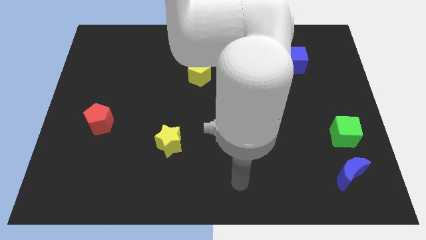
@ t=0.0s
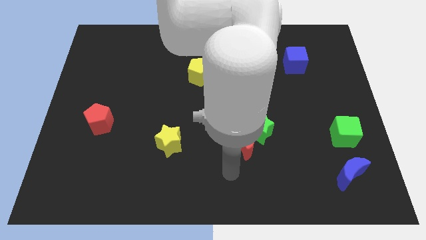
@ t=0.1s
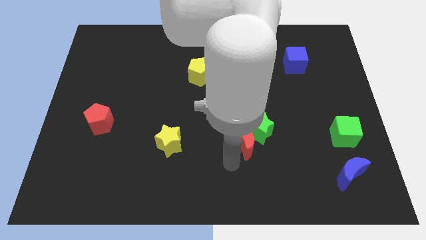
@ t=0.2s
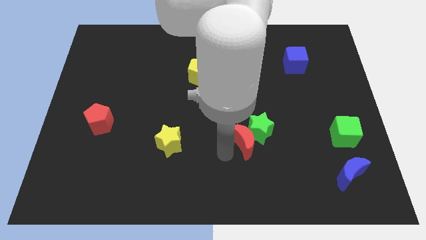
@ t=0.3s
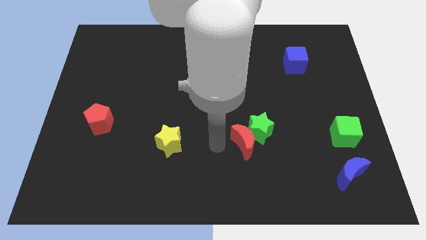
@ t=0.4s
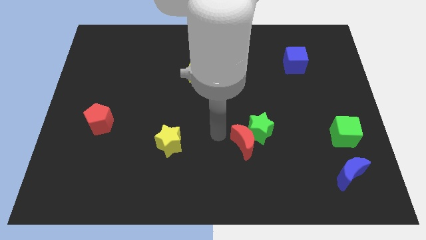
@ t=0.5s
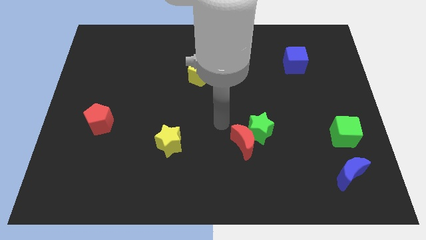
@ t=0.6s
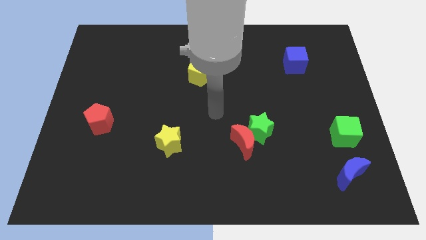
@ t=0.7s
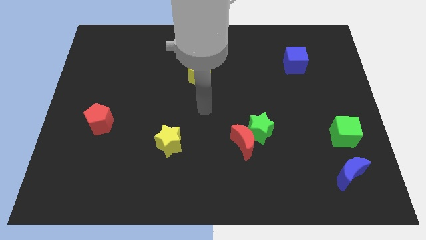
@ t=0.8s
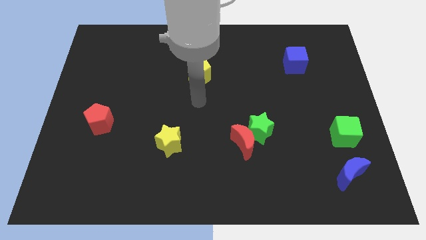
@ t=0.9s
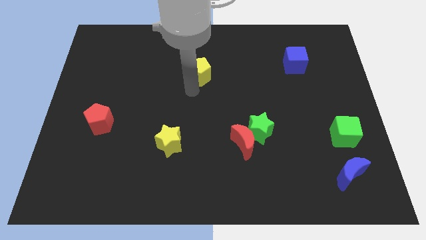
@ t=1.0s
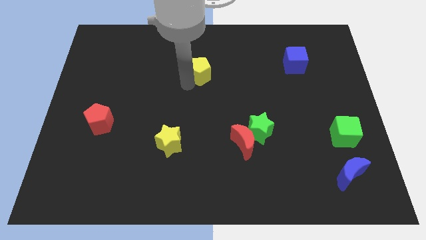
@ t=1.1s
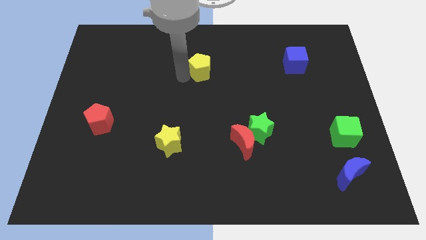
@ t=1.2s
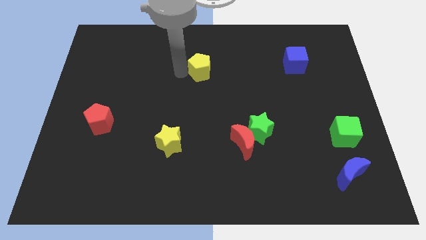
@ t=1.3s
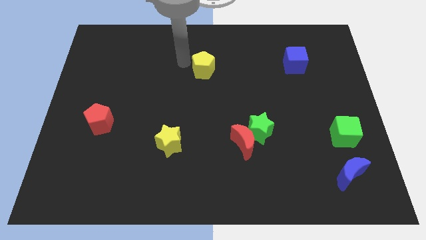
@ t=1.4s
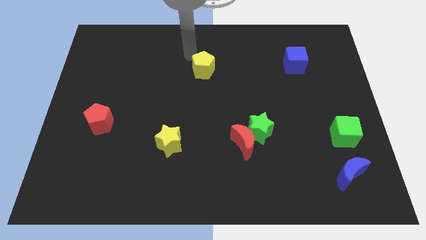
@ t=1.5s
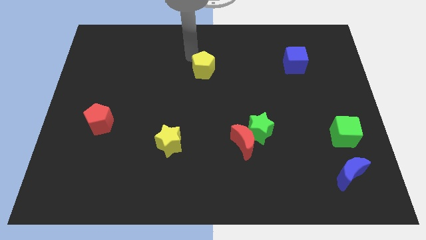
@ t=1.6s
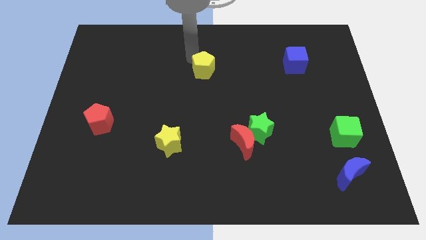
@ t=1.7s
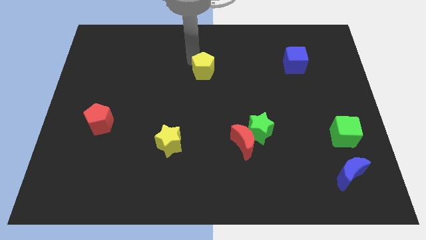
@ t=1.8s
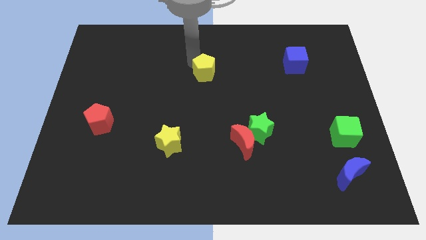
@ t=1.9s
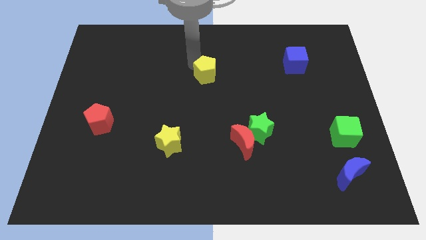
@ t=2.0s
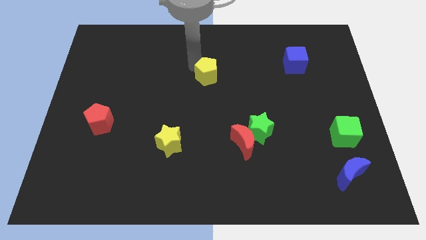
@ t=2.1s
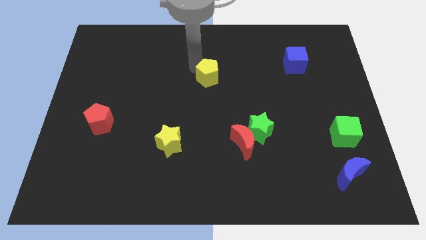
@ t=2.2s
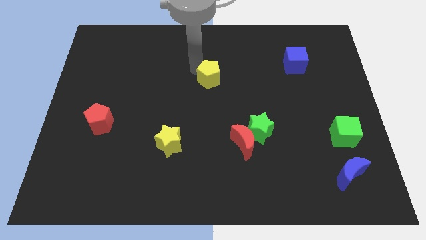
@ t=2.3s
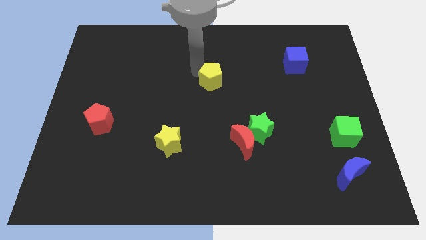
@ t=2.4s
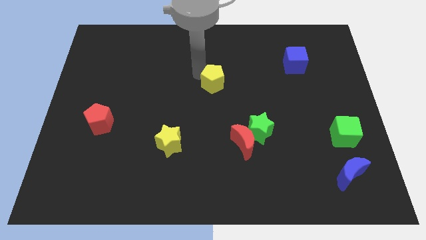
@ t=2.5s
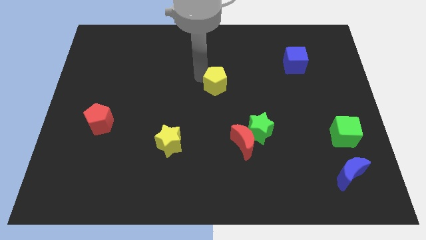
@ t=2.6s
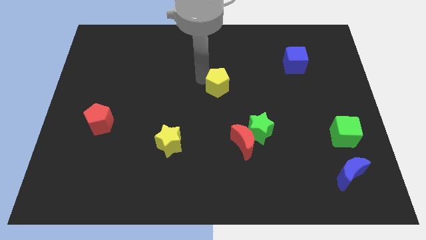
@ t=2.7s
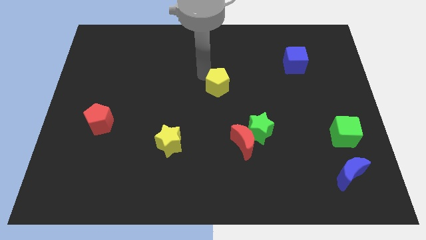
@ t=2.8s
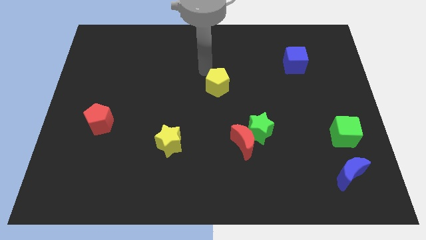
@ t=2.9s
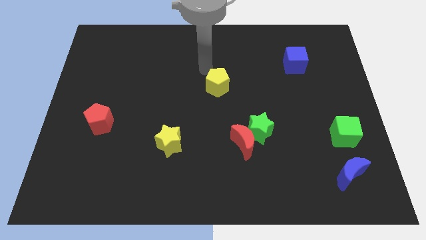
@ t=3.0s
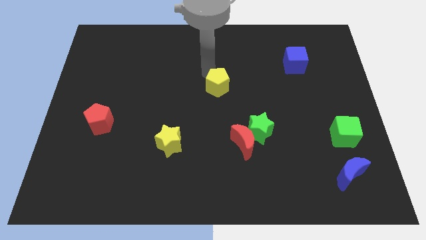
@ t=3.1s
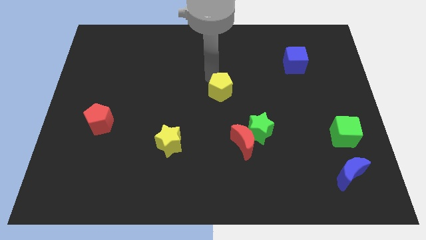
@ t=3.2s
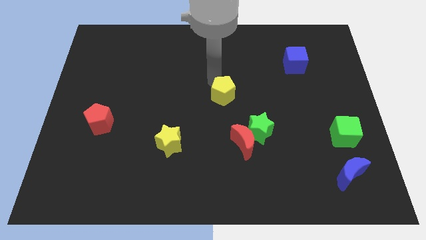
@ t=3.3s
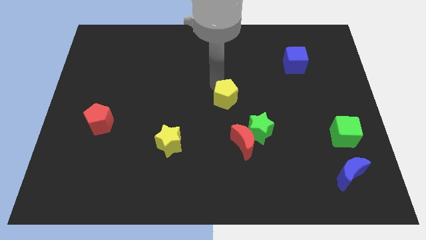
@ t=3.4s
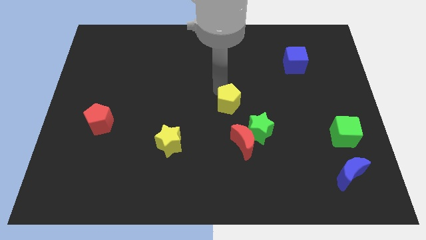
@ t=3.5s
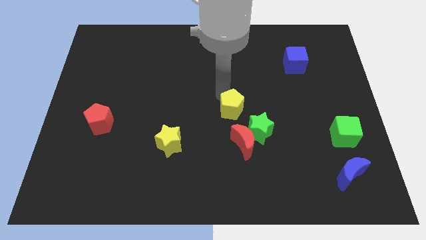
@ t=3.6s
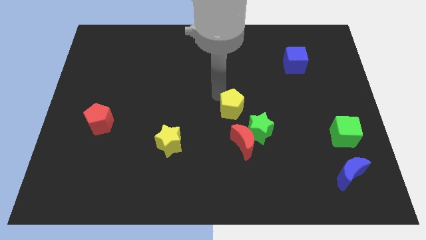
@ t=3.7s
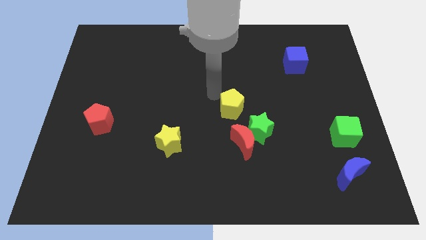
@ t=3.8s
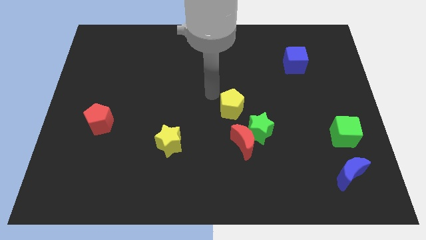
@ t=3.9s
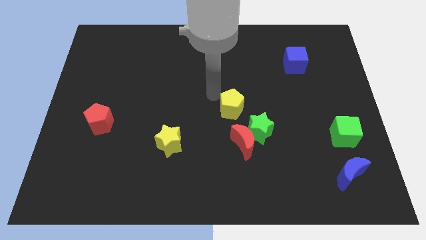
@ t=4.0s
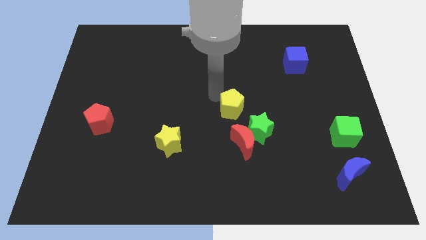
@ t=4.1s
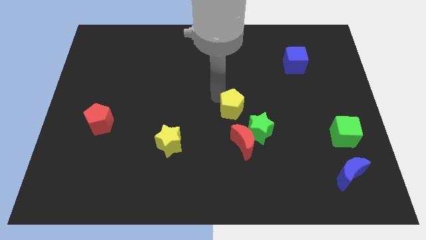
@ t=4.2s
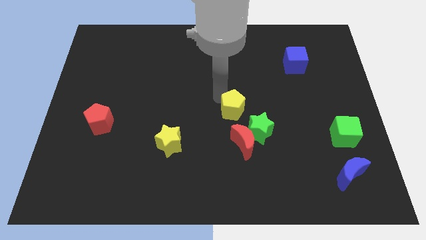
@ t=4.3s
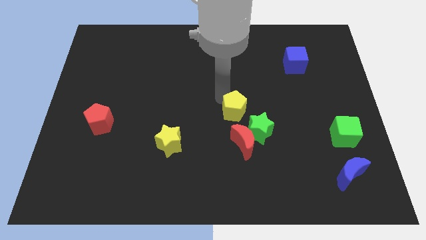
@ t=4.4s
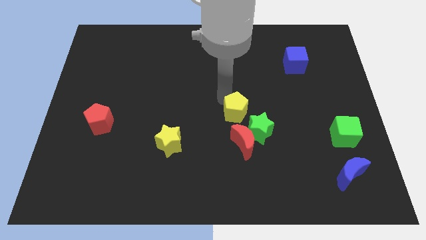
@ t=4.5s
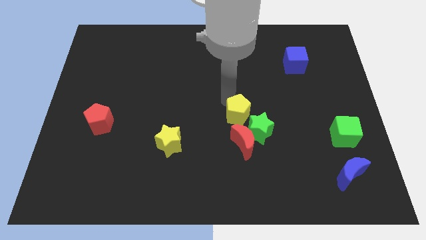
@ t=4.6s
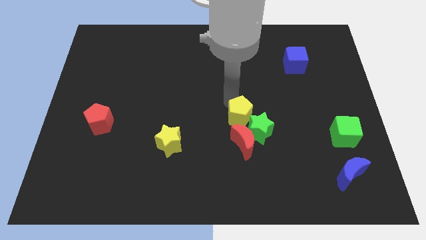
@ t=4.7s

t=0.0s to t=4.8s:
slide the yellow pentagon towards the green star

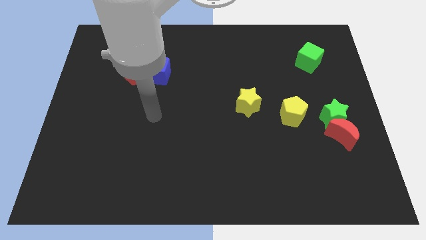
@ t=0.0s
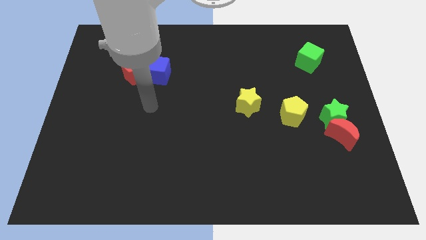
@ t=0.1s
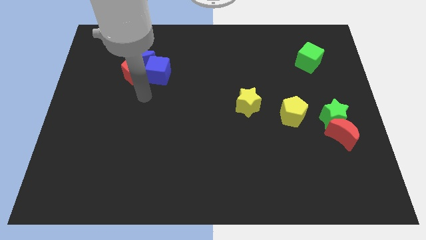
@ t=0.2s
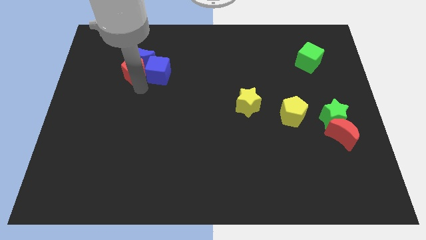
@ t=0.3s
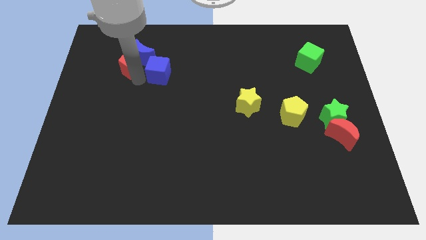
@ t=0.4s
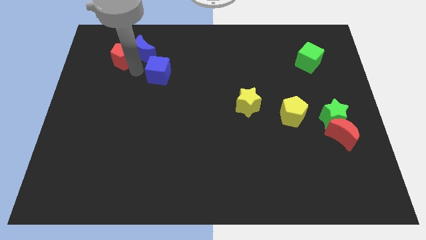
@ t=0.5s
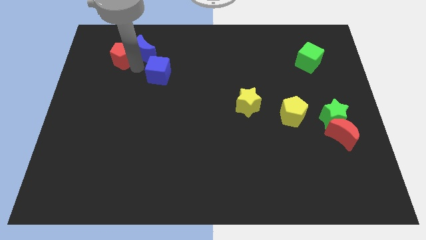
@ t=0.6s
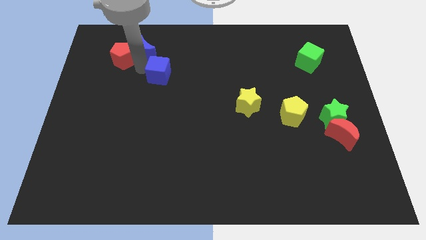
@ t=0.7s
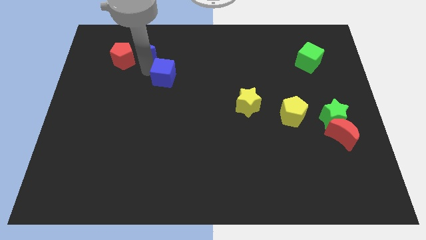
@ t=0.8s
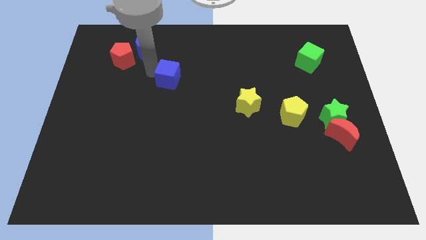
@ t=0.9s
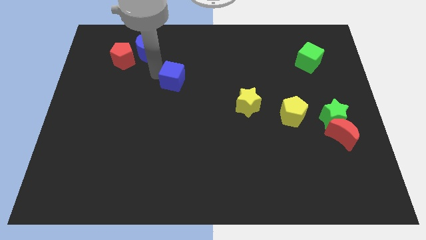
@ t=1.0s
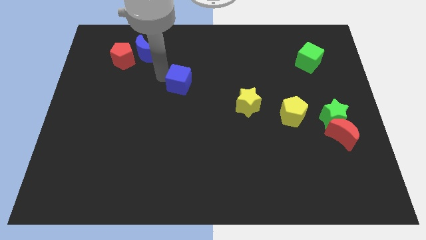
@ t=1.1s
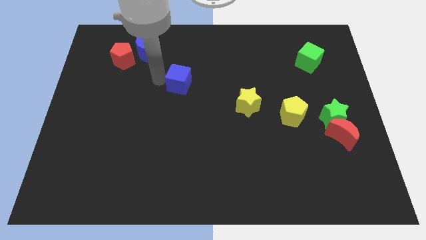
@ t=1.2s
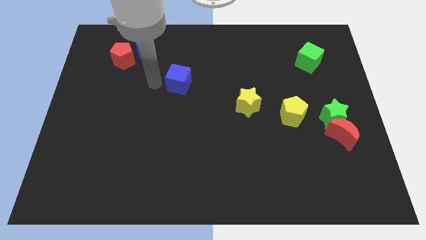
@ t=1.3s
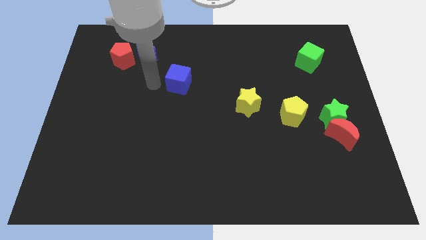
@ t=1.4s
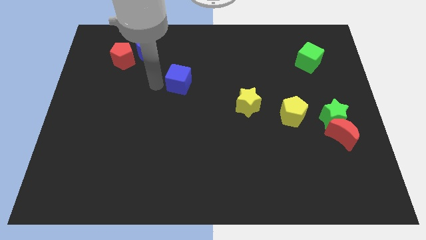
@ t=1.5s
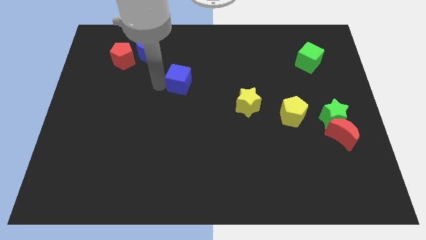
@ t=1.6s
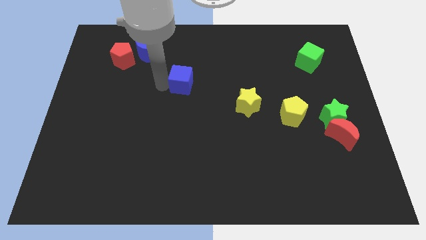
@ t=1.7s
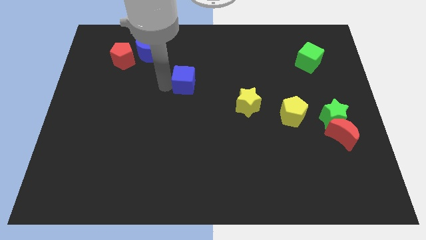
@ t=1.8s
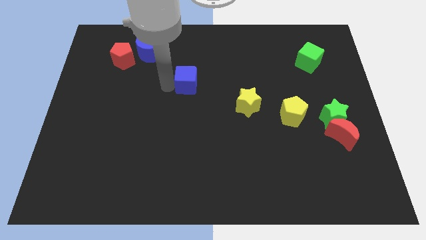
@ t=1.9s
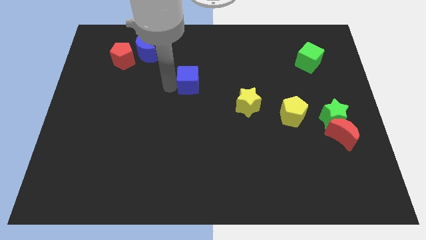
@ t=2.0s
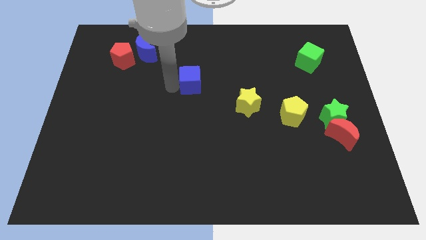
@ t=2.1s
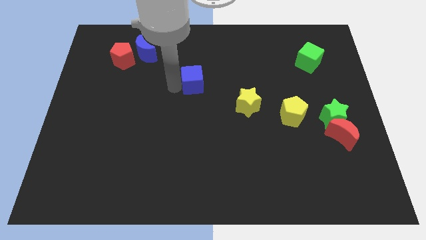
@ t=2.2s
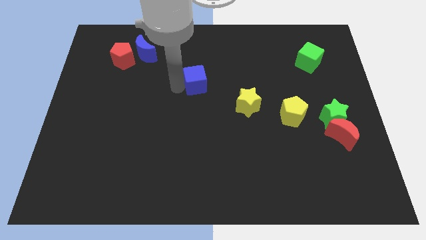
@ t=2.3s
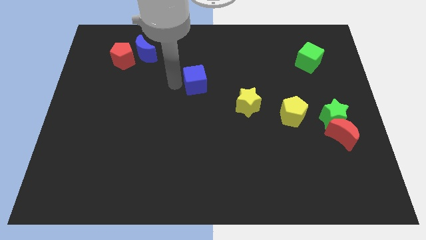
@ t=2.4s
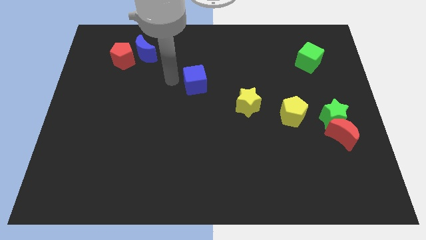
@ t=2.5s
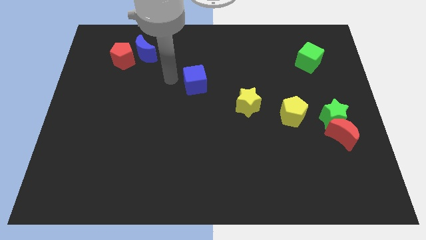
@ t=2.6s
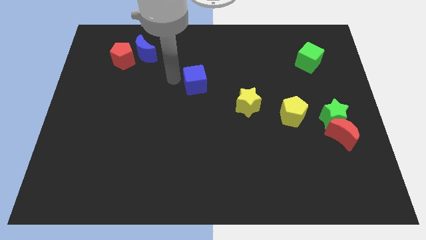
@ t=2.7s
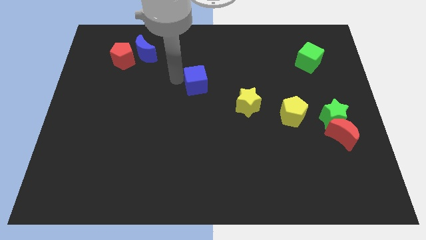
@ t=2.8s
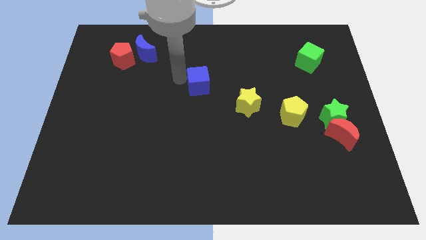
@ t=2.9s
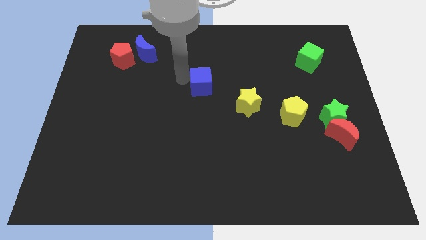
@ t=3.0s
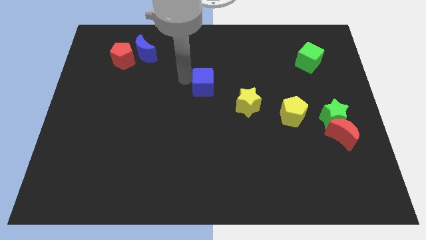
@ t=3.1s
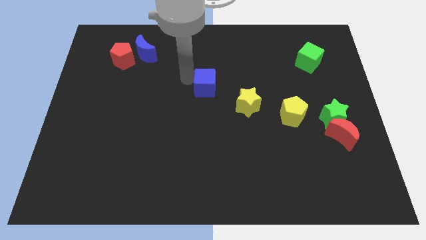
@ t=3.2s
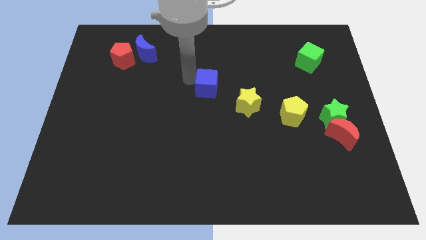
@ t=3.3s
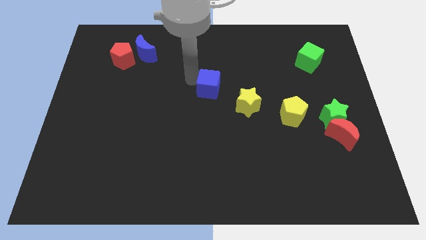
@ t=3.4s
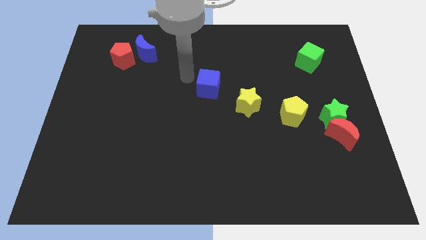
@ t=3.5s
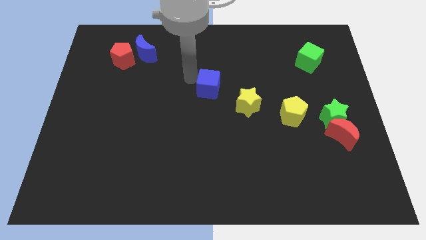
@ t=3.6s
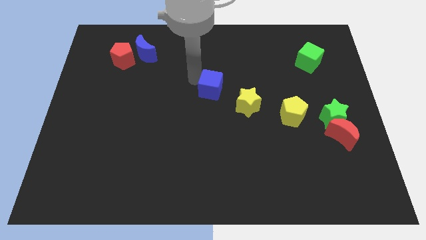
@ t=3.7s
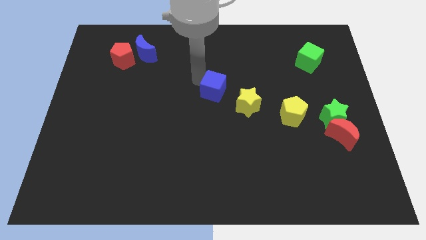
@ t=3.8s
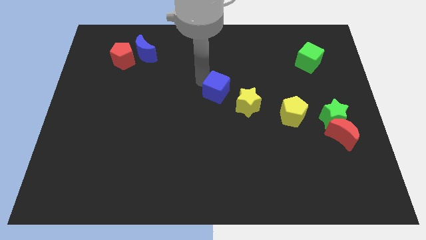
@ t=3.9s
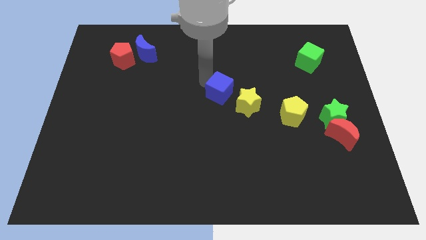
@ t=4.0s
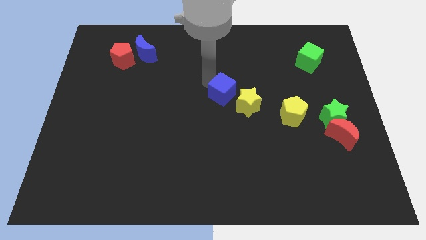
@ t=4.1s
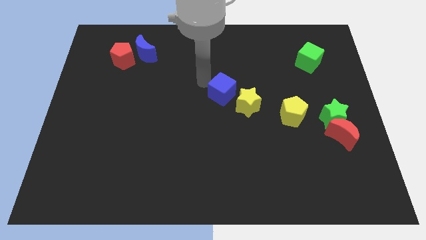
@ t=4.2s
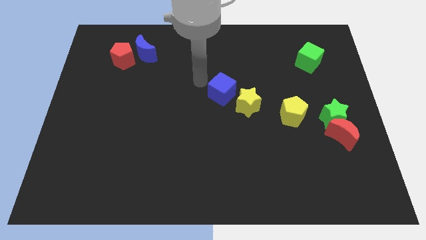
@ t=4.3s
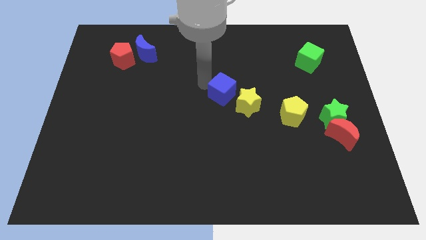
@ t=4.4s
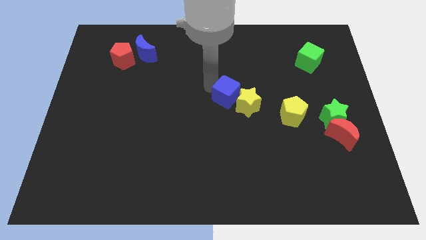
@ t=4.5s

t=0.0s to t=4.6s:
slide the blue cube next to the yellow star
